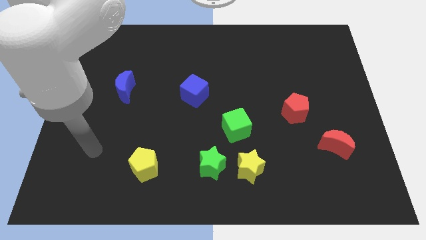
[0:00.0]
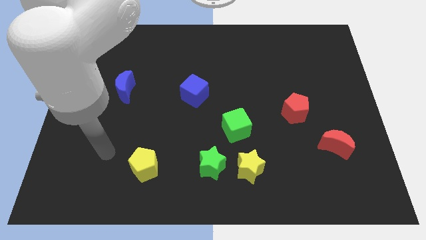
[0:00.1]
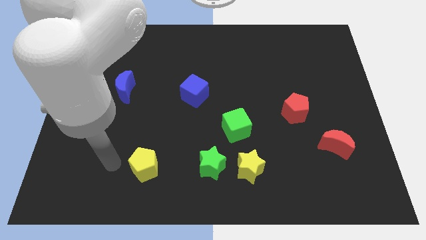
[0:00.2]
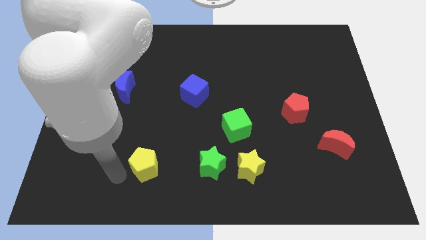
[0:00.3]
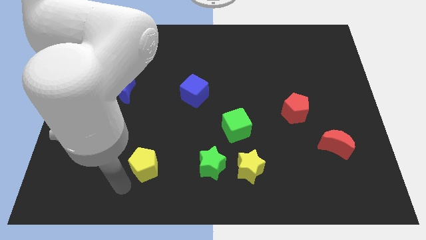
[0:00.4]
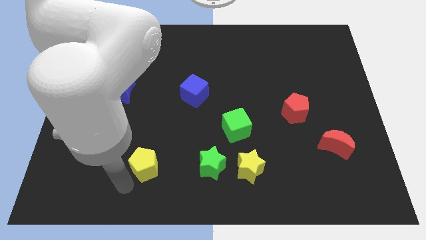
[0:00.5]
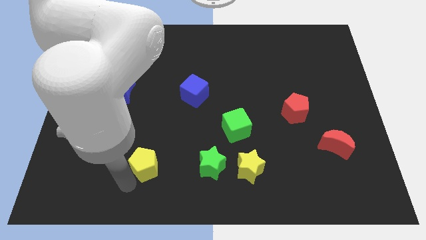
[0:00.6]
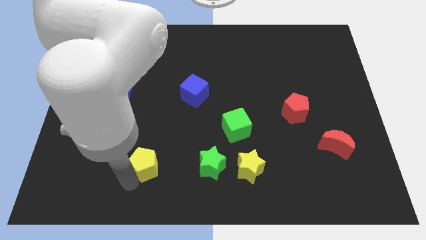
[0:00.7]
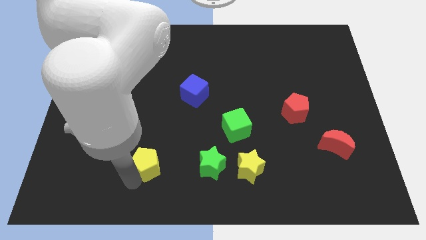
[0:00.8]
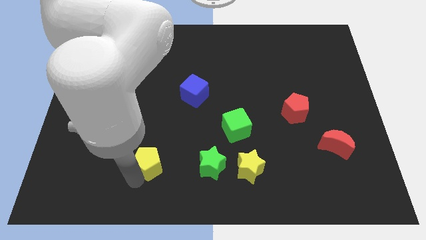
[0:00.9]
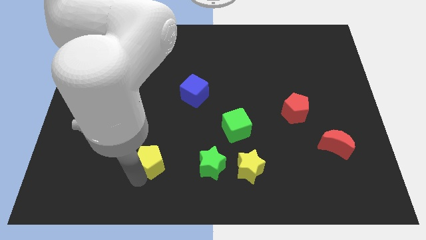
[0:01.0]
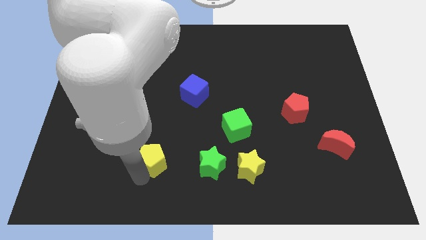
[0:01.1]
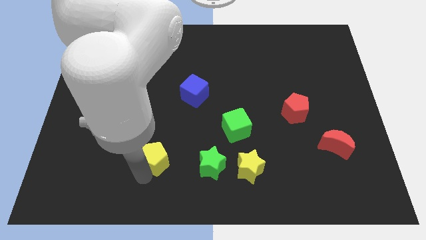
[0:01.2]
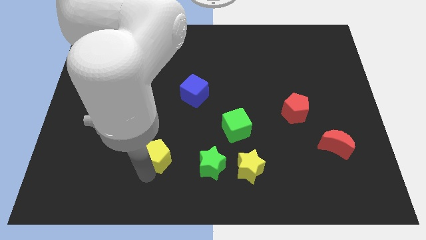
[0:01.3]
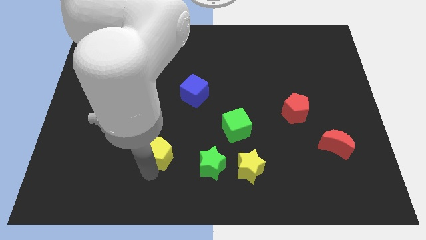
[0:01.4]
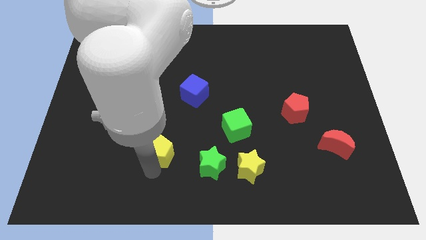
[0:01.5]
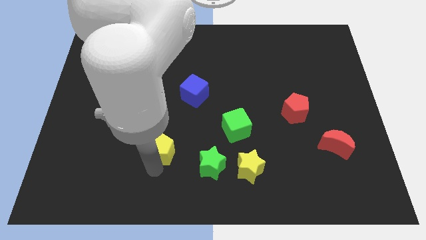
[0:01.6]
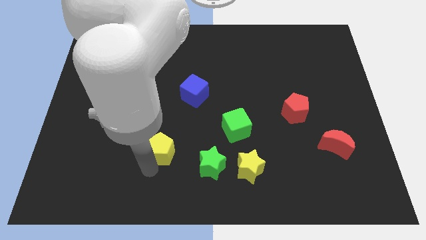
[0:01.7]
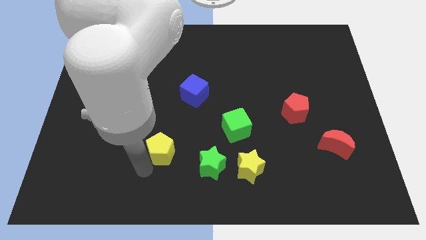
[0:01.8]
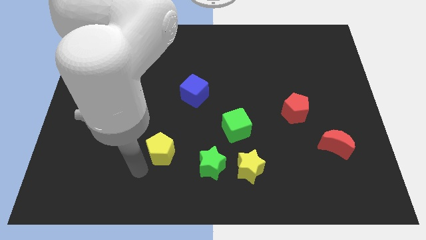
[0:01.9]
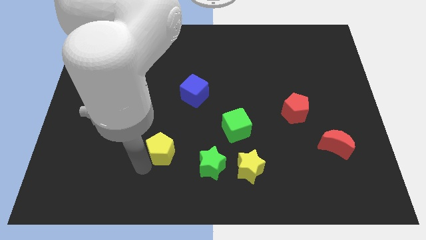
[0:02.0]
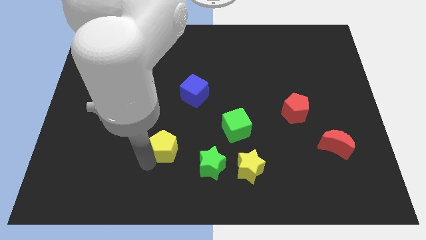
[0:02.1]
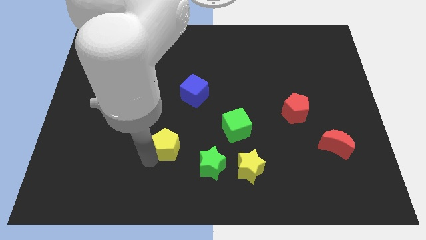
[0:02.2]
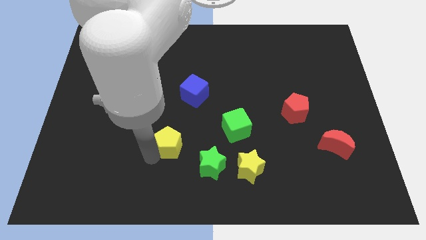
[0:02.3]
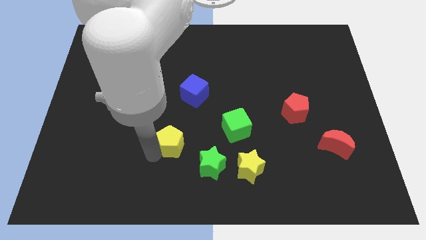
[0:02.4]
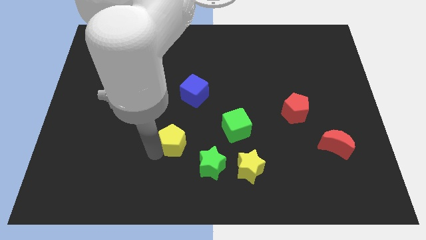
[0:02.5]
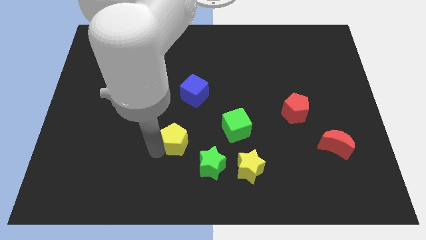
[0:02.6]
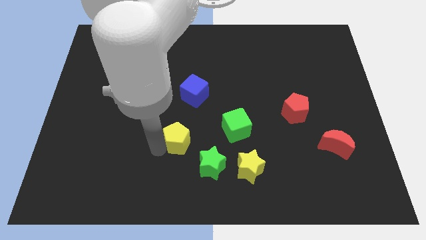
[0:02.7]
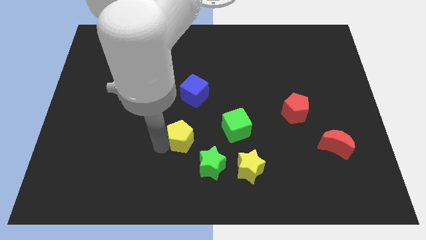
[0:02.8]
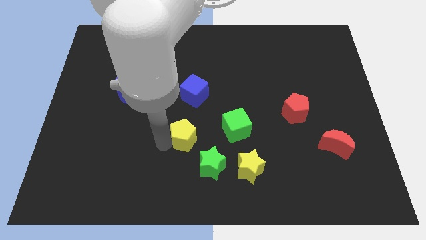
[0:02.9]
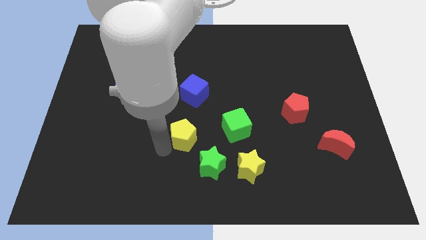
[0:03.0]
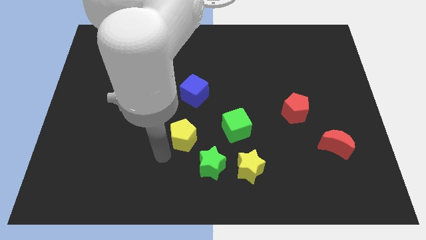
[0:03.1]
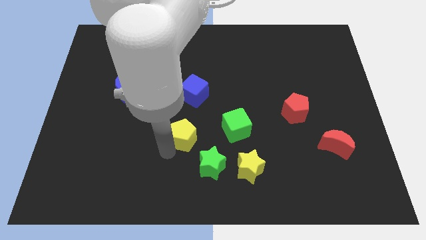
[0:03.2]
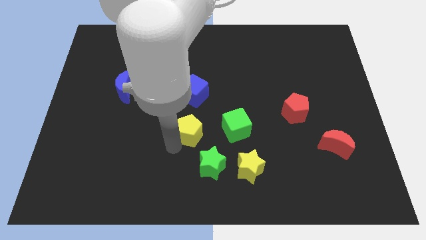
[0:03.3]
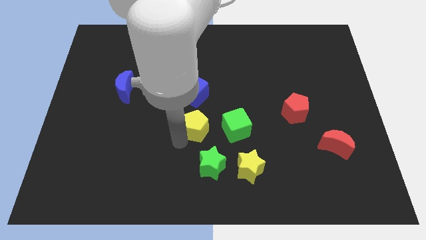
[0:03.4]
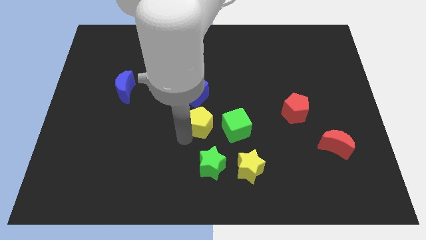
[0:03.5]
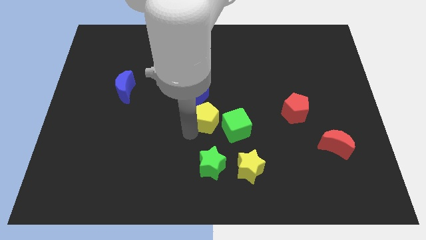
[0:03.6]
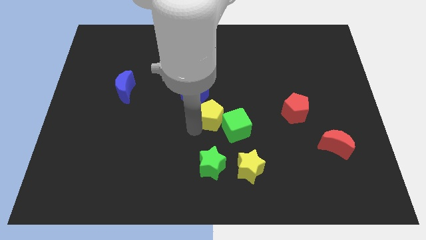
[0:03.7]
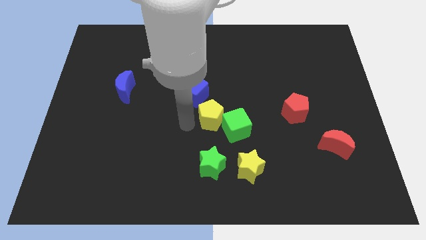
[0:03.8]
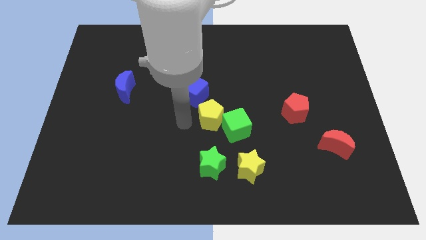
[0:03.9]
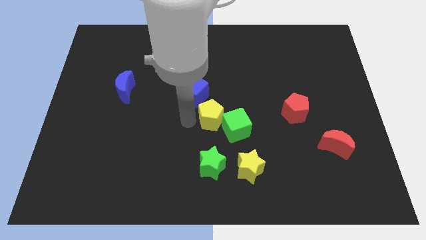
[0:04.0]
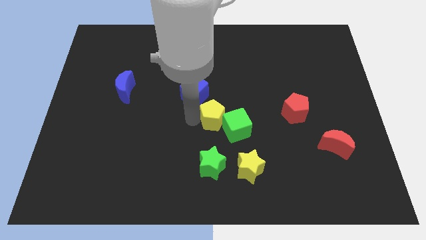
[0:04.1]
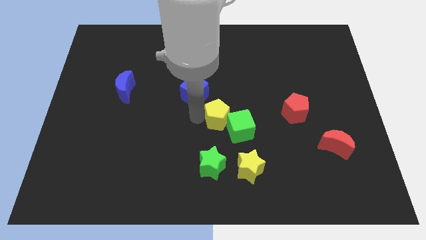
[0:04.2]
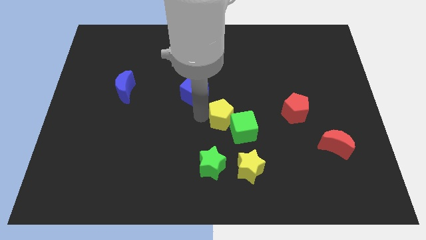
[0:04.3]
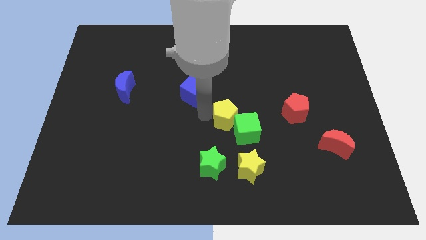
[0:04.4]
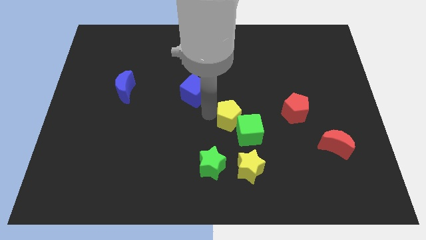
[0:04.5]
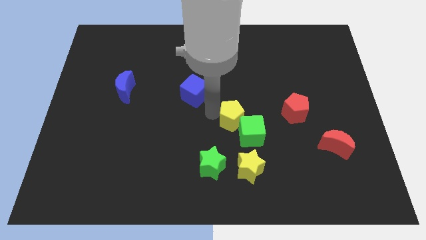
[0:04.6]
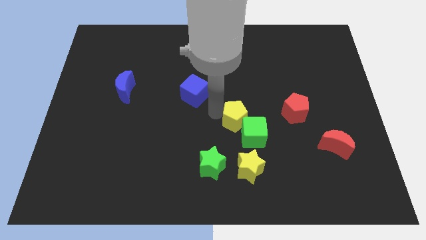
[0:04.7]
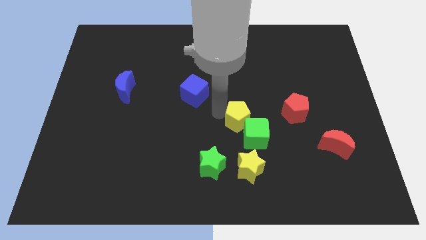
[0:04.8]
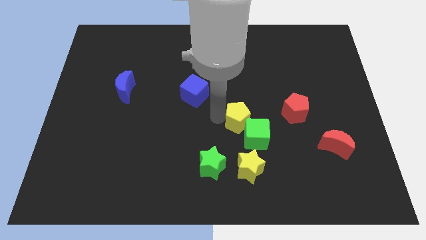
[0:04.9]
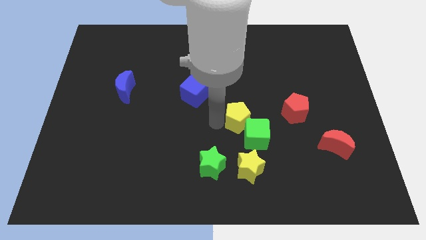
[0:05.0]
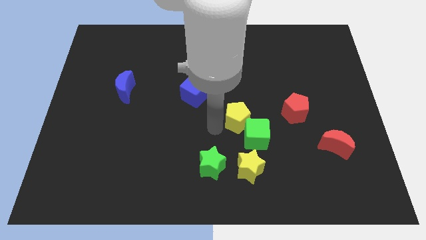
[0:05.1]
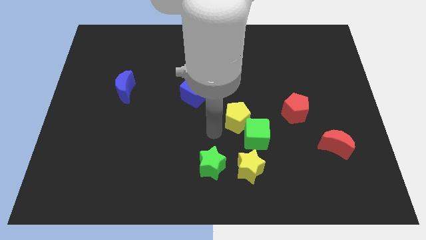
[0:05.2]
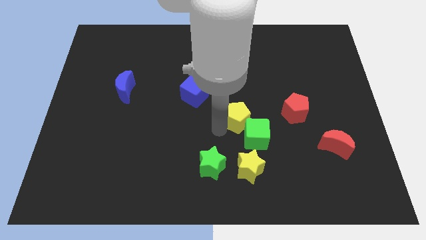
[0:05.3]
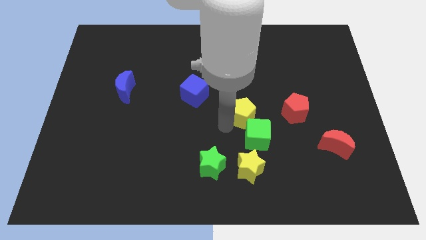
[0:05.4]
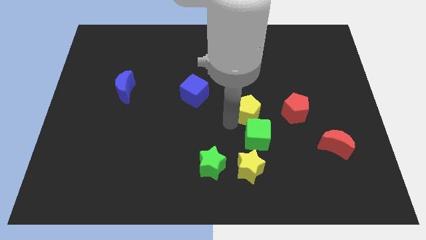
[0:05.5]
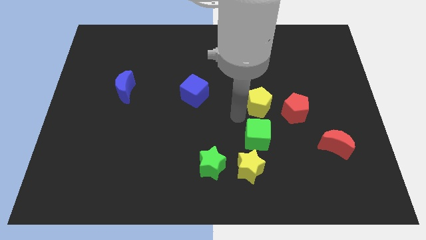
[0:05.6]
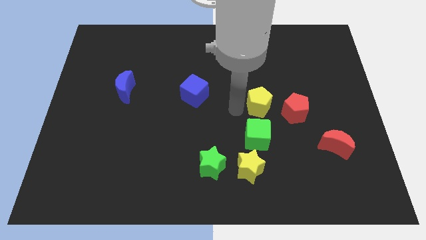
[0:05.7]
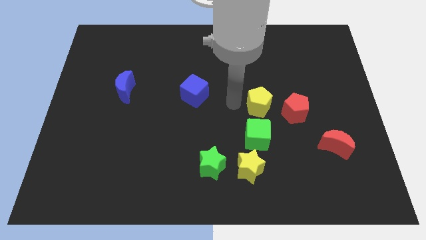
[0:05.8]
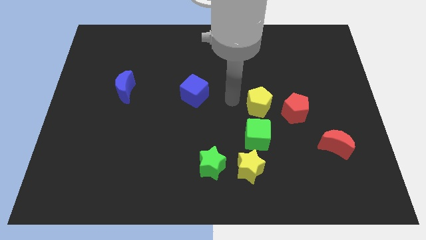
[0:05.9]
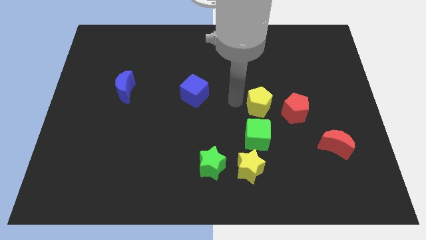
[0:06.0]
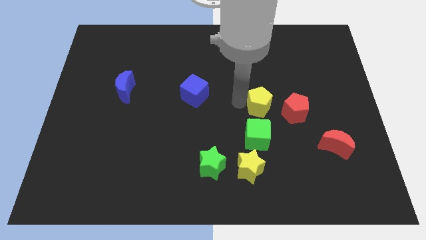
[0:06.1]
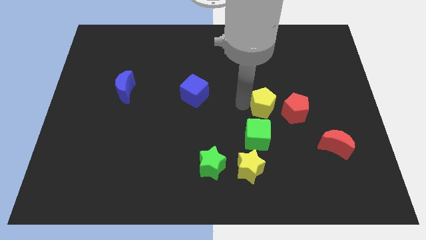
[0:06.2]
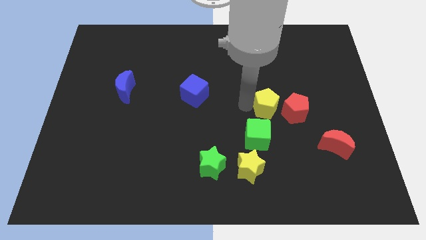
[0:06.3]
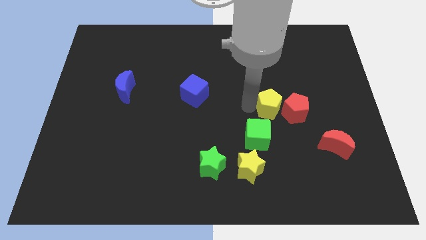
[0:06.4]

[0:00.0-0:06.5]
move the yellow pentagon towards the red pentagon

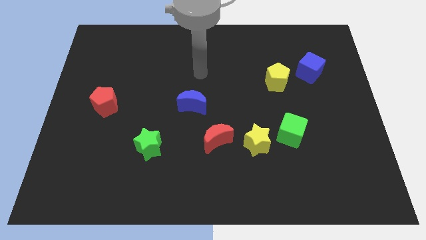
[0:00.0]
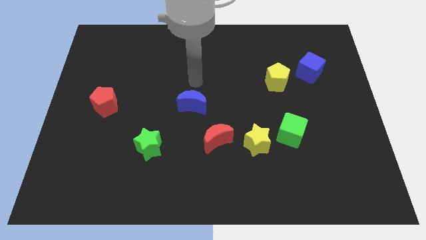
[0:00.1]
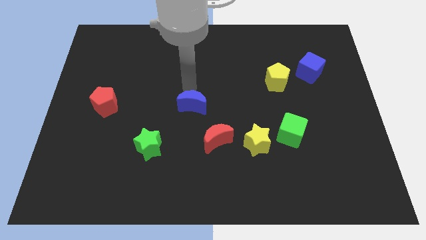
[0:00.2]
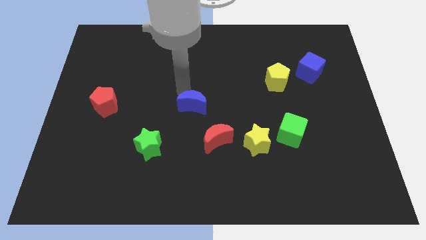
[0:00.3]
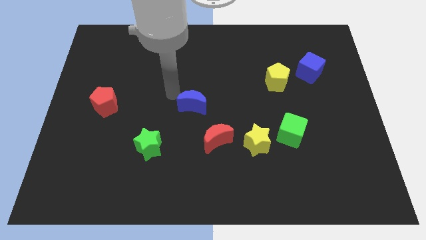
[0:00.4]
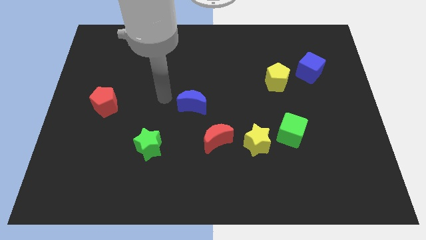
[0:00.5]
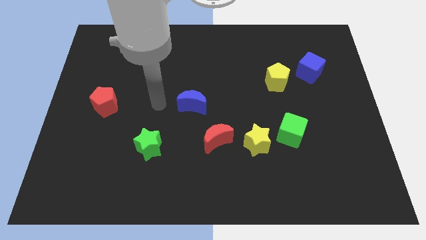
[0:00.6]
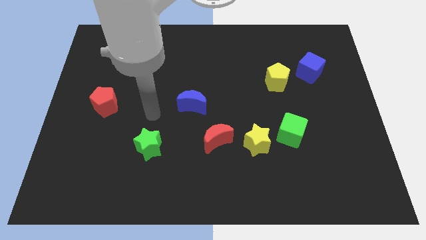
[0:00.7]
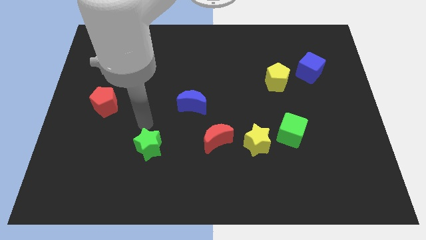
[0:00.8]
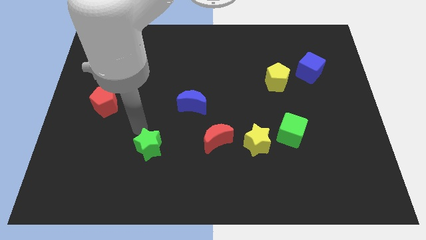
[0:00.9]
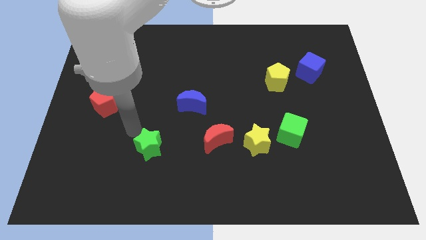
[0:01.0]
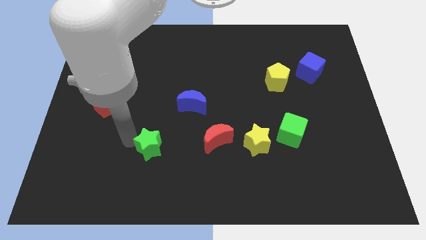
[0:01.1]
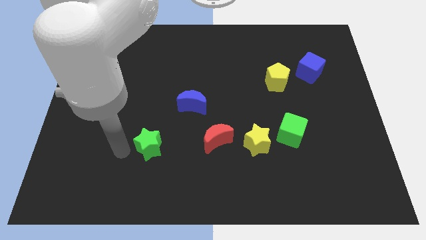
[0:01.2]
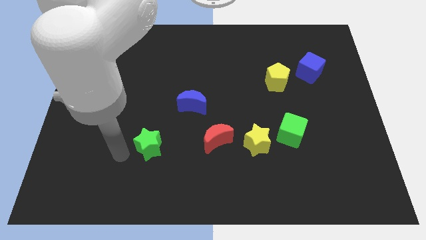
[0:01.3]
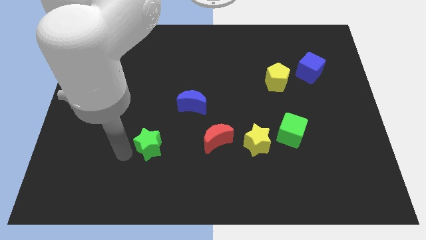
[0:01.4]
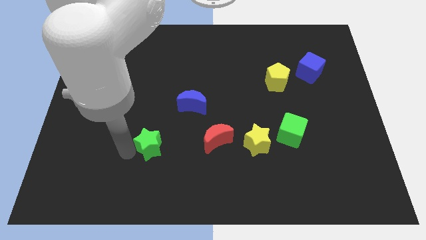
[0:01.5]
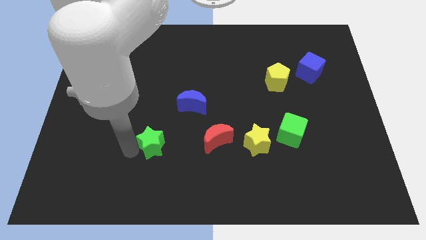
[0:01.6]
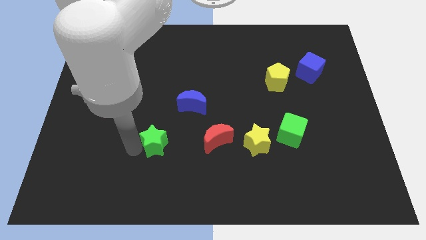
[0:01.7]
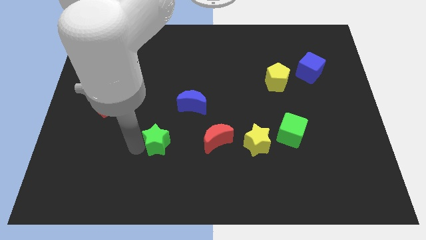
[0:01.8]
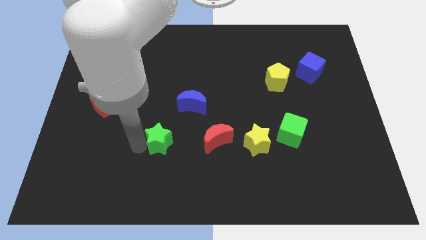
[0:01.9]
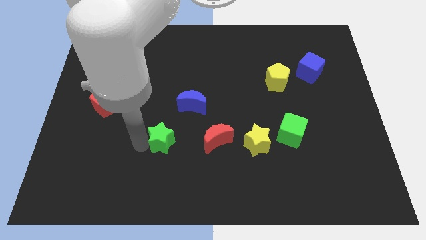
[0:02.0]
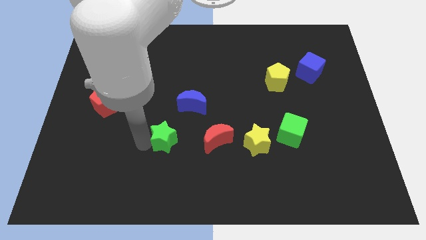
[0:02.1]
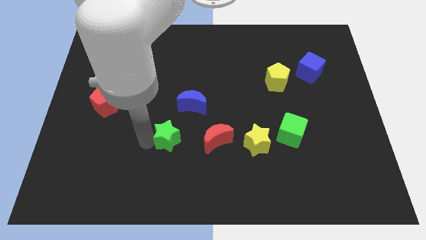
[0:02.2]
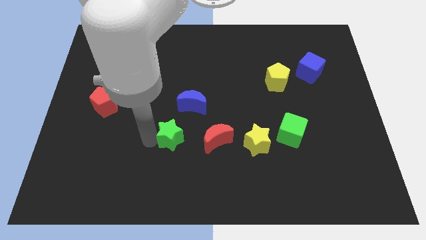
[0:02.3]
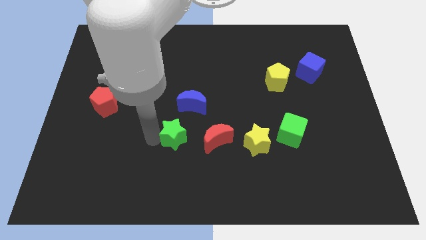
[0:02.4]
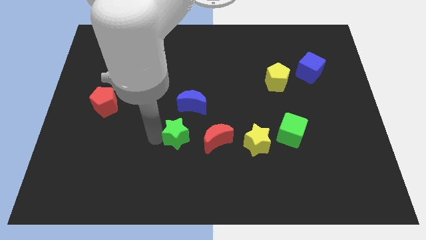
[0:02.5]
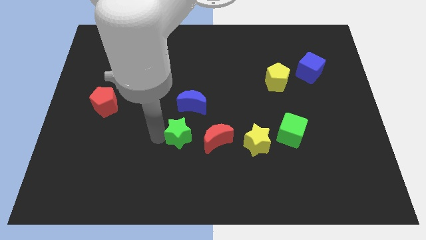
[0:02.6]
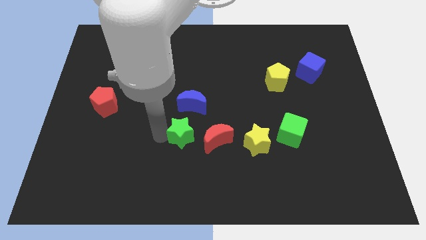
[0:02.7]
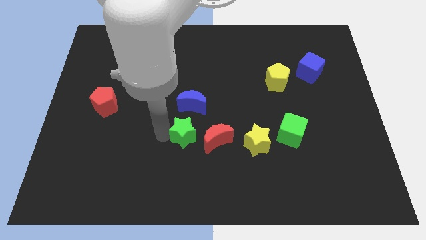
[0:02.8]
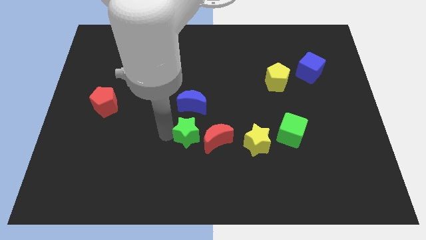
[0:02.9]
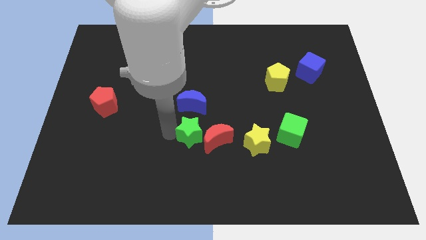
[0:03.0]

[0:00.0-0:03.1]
slide the green star towards the red moon
